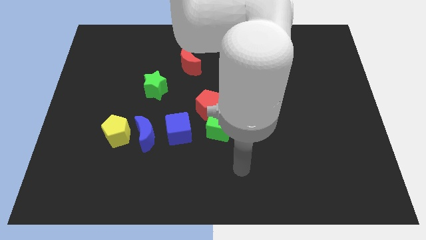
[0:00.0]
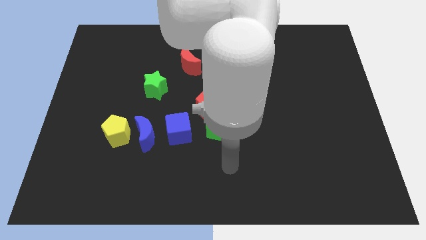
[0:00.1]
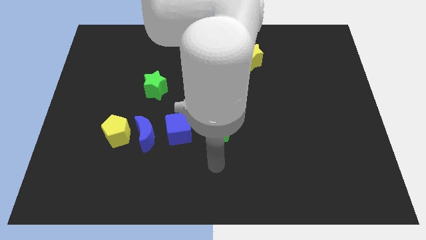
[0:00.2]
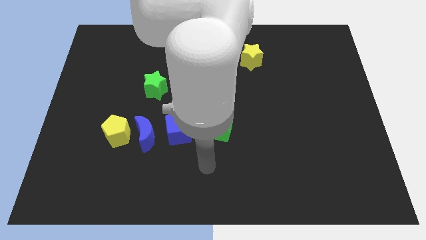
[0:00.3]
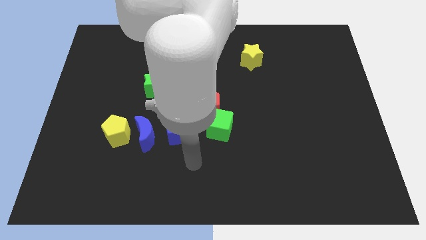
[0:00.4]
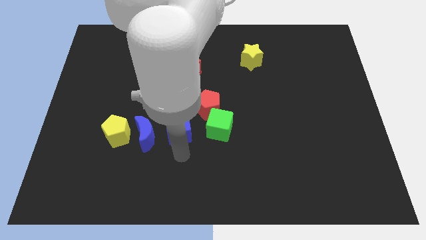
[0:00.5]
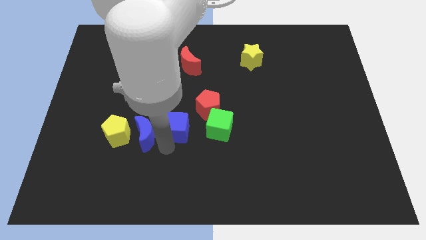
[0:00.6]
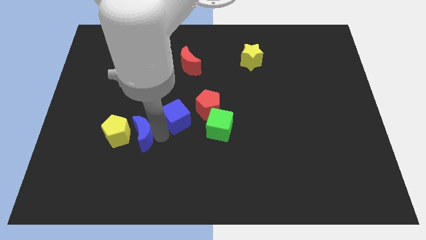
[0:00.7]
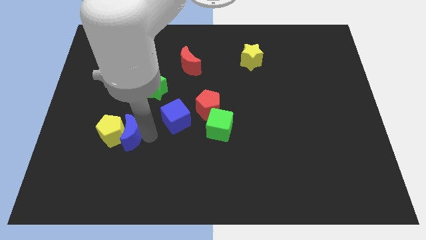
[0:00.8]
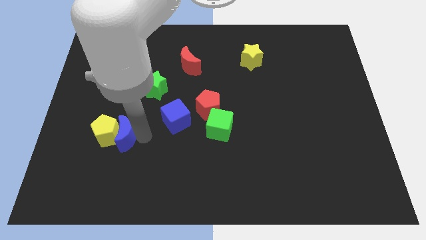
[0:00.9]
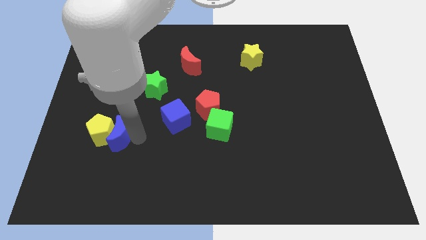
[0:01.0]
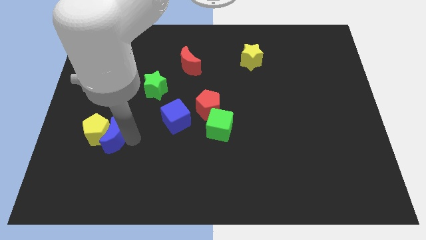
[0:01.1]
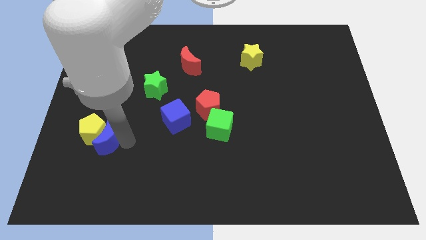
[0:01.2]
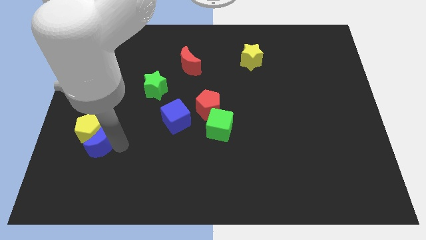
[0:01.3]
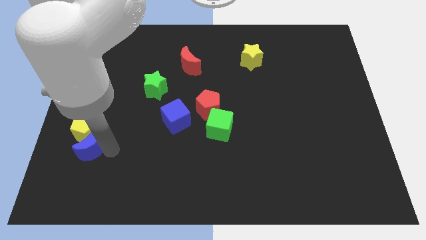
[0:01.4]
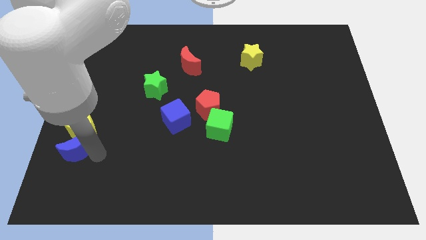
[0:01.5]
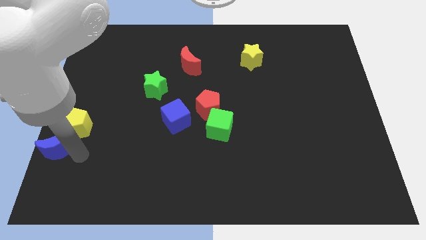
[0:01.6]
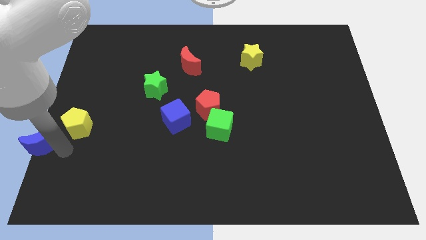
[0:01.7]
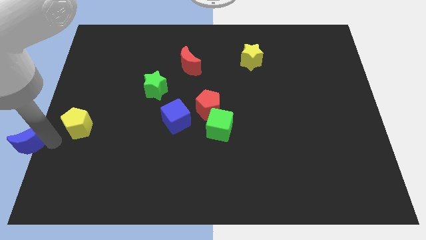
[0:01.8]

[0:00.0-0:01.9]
pull the yellow pentagon apart from the blue moon

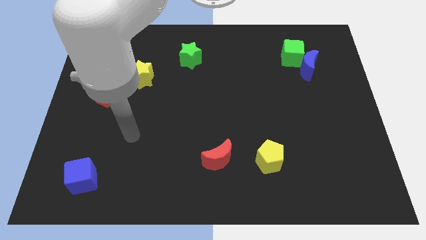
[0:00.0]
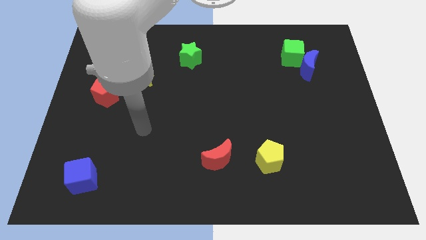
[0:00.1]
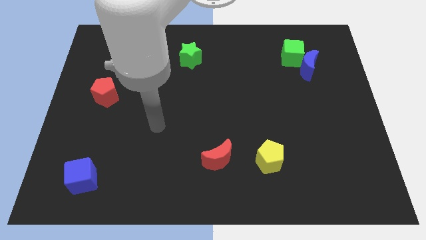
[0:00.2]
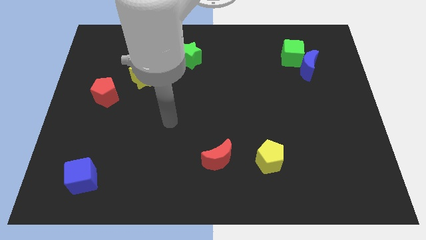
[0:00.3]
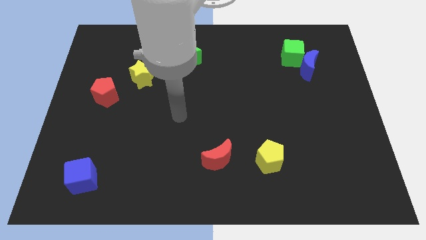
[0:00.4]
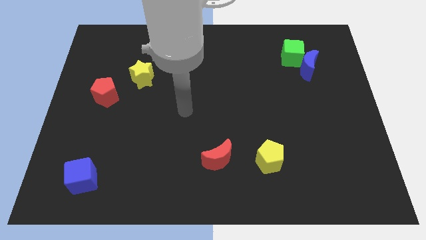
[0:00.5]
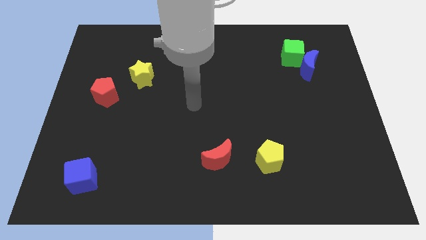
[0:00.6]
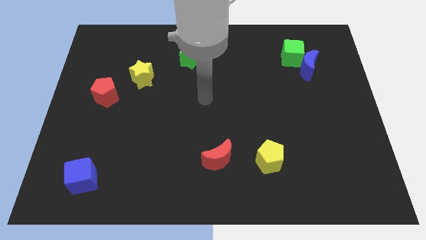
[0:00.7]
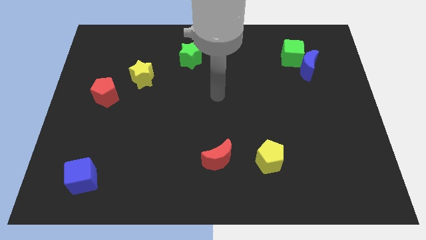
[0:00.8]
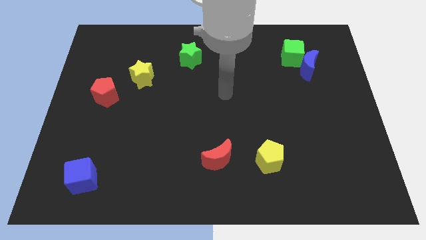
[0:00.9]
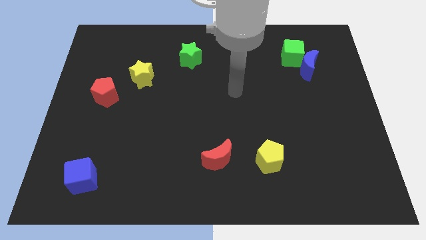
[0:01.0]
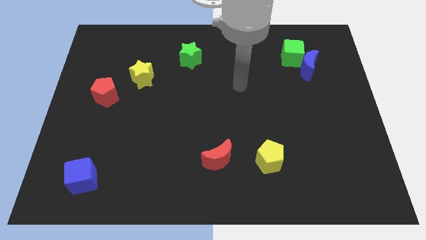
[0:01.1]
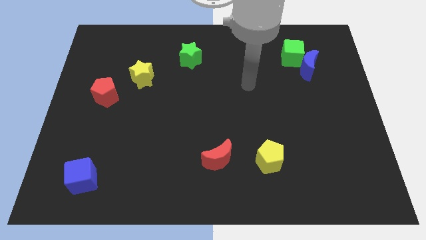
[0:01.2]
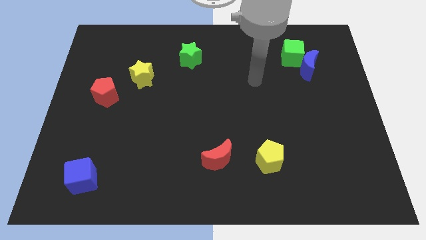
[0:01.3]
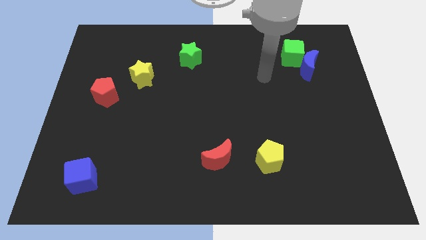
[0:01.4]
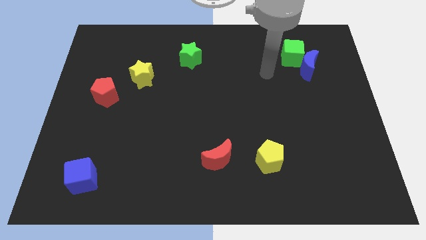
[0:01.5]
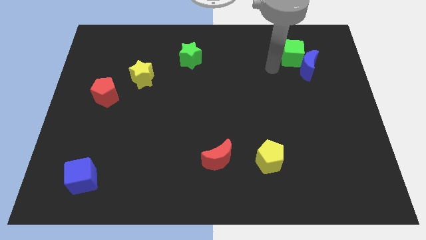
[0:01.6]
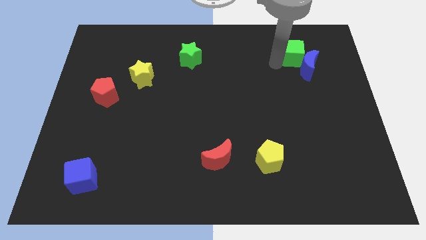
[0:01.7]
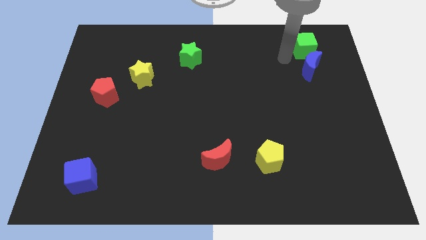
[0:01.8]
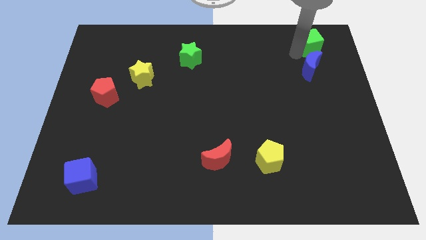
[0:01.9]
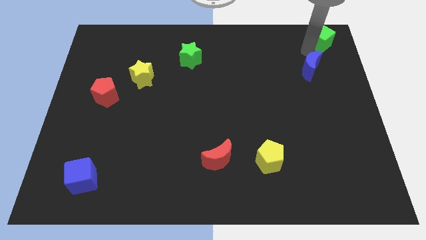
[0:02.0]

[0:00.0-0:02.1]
move the blue moon away from the green cube

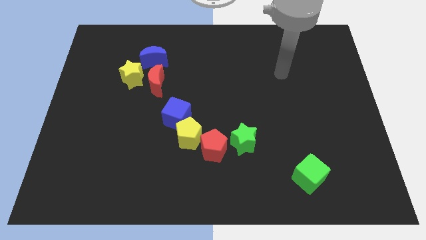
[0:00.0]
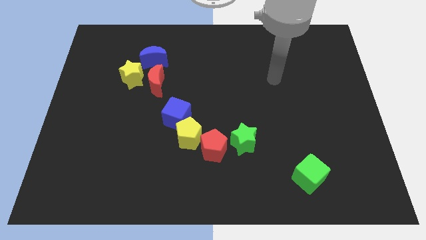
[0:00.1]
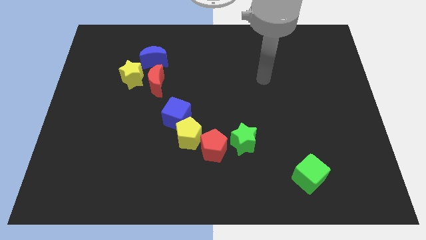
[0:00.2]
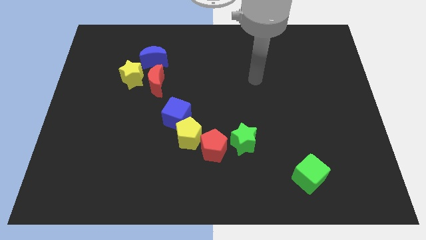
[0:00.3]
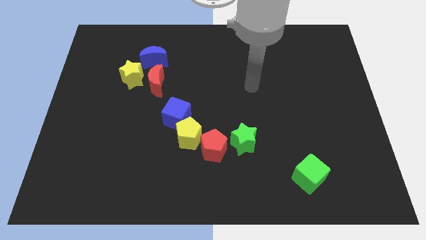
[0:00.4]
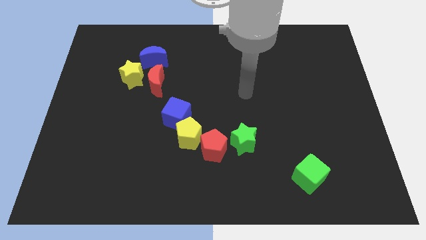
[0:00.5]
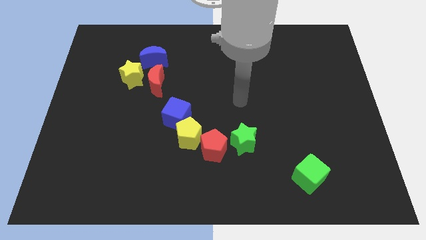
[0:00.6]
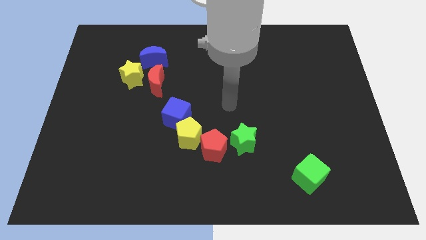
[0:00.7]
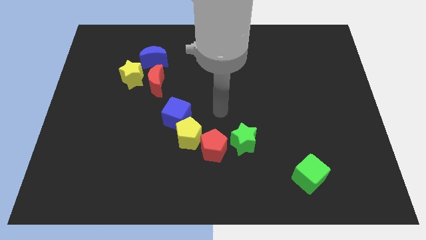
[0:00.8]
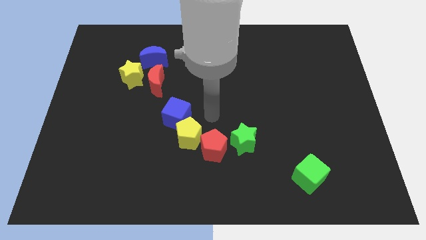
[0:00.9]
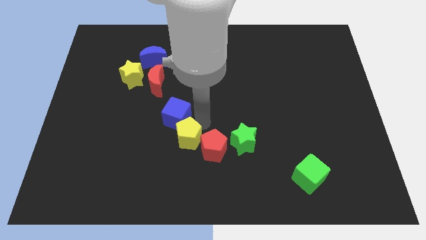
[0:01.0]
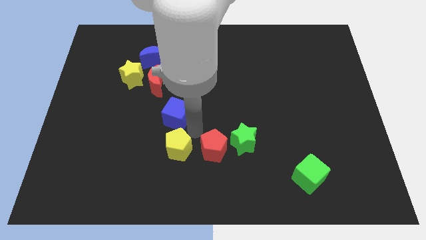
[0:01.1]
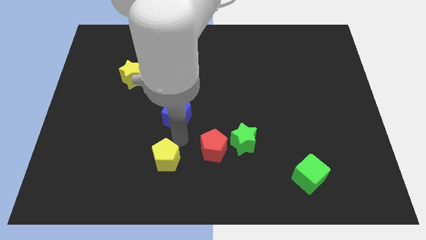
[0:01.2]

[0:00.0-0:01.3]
pull the blue cube apart from the yellow pentagon

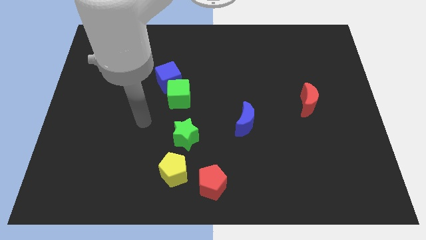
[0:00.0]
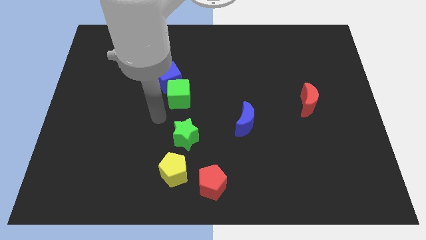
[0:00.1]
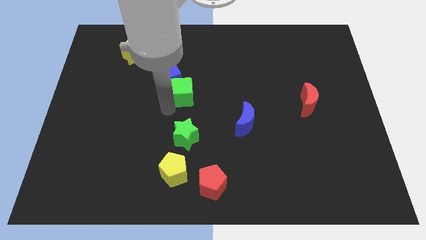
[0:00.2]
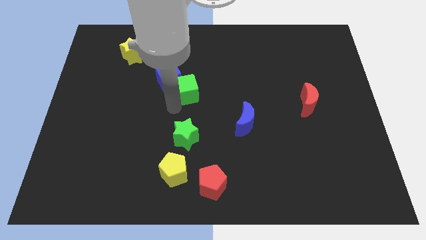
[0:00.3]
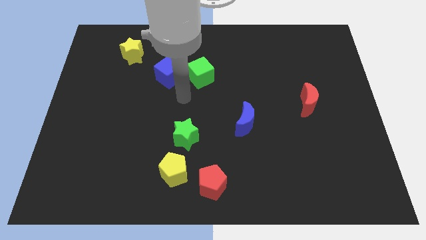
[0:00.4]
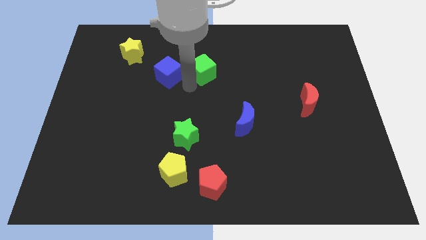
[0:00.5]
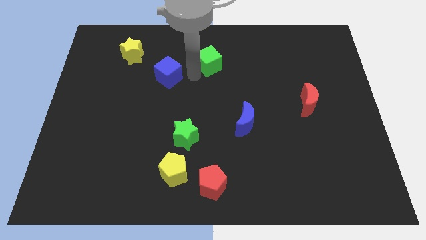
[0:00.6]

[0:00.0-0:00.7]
pull the blue cube apart from the green cube

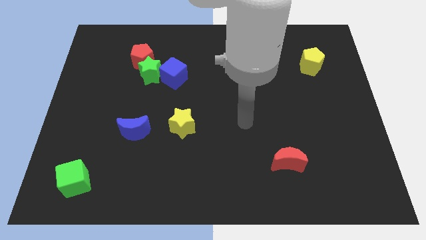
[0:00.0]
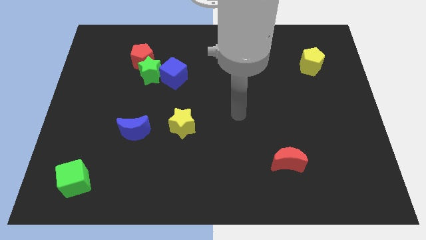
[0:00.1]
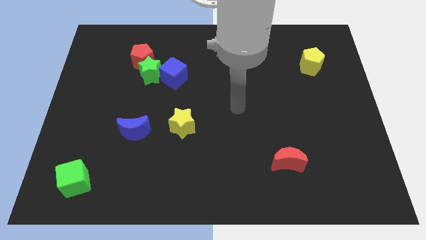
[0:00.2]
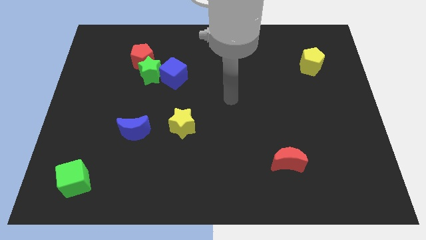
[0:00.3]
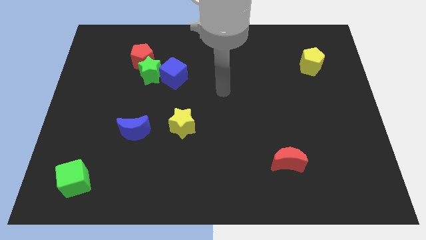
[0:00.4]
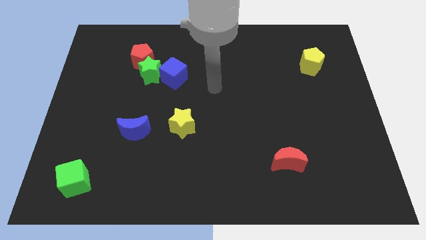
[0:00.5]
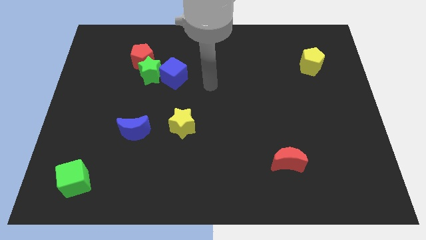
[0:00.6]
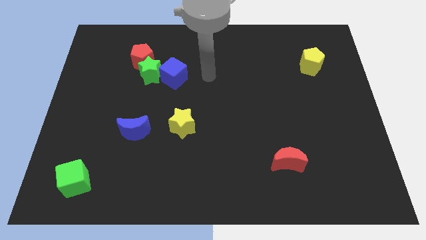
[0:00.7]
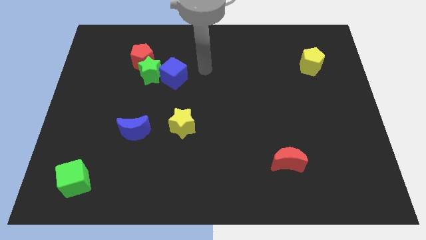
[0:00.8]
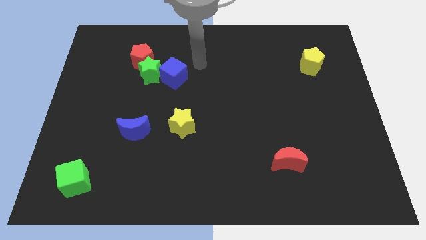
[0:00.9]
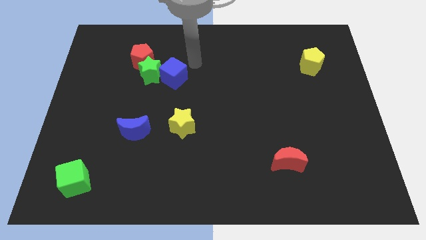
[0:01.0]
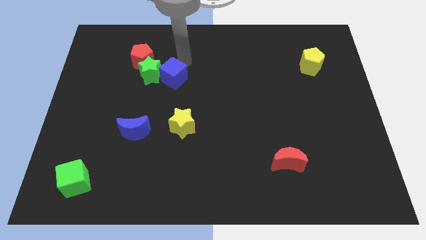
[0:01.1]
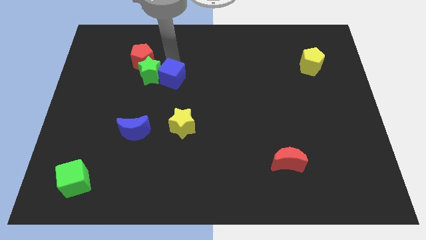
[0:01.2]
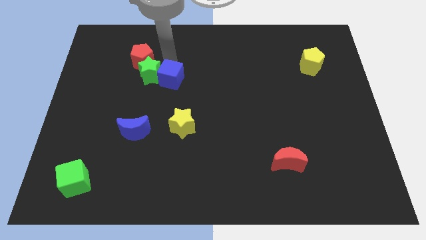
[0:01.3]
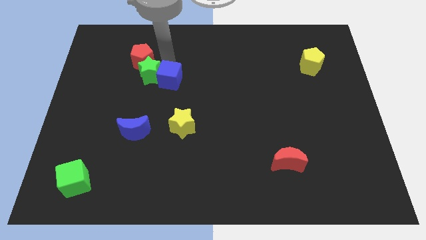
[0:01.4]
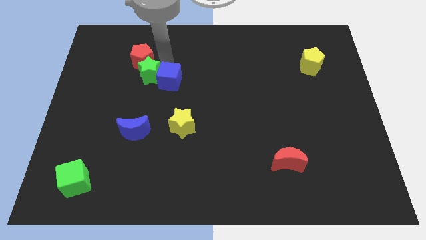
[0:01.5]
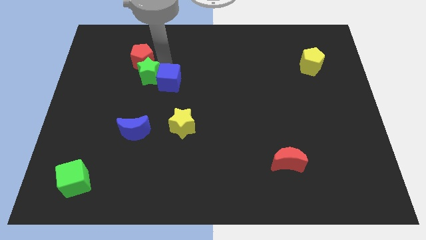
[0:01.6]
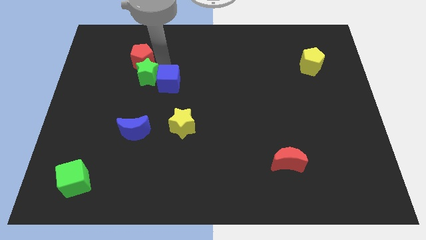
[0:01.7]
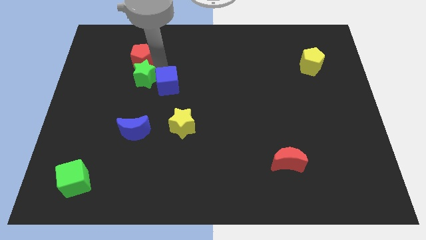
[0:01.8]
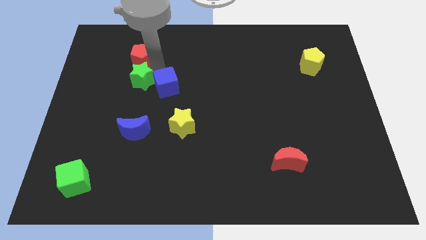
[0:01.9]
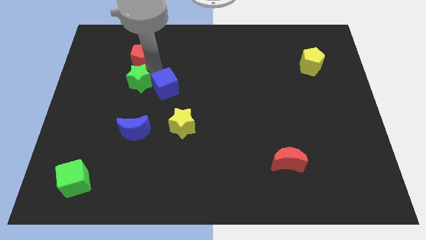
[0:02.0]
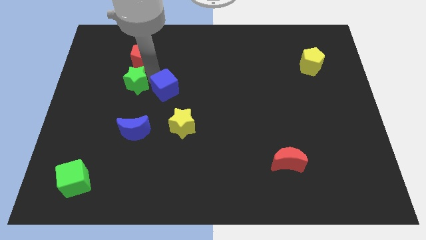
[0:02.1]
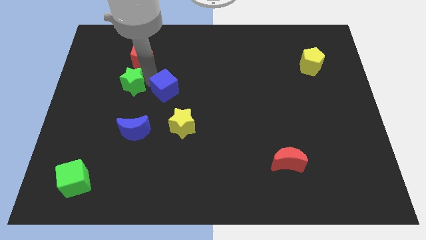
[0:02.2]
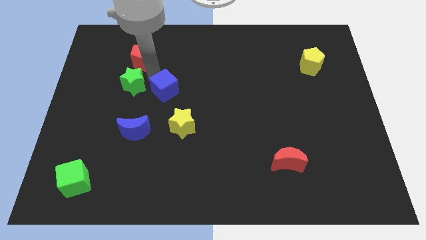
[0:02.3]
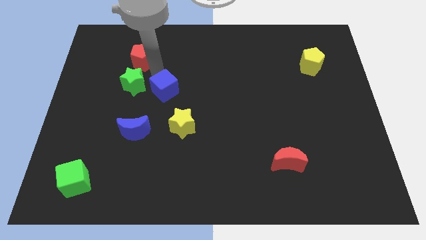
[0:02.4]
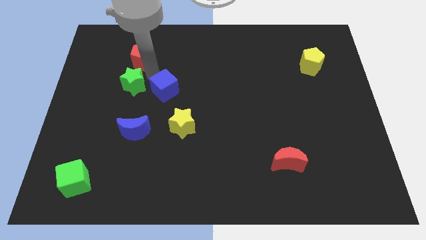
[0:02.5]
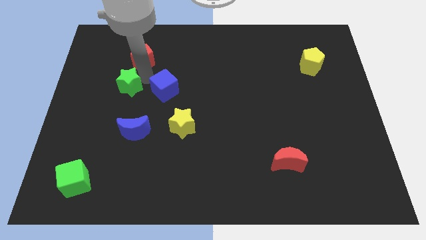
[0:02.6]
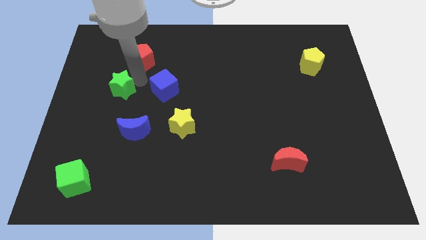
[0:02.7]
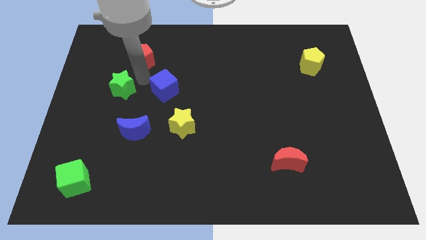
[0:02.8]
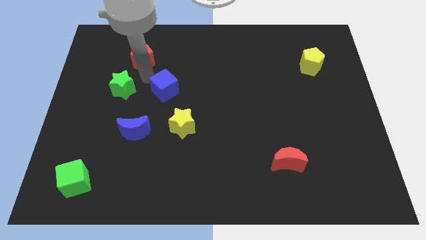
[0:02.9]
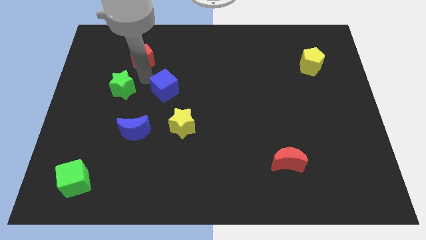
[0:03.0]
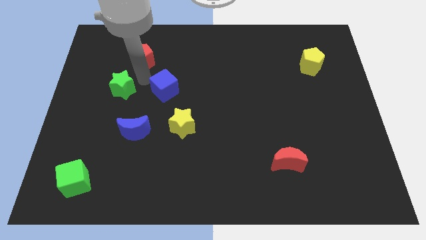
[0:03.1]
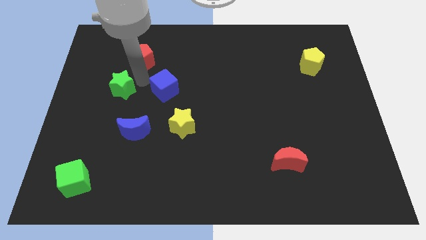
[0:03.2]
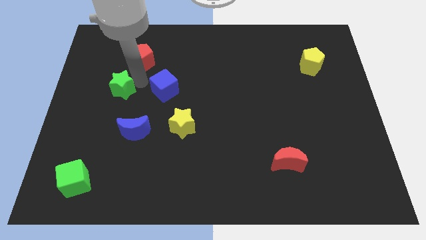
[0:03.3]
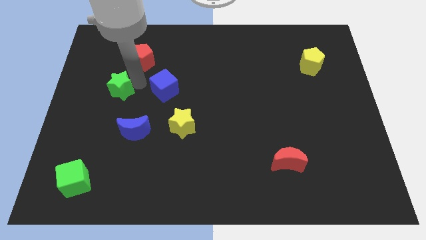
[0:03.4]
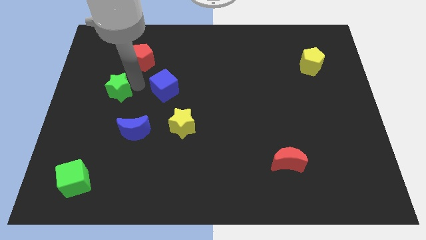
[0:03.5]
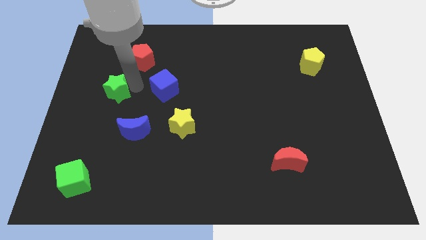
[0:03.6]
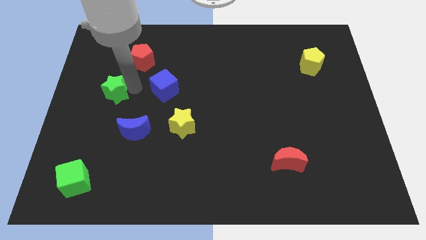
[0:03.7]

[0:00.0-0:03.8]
move the green star away from the red pentagon and blue cube
